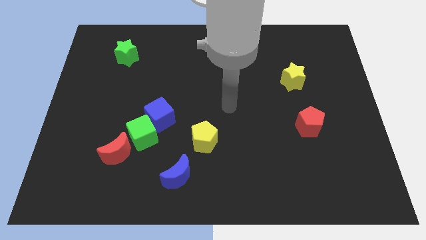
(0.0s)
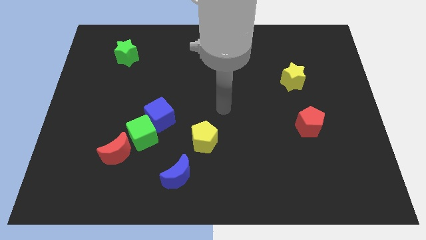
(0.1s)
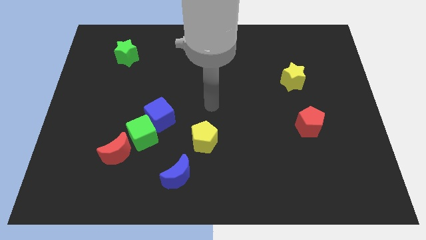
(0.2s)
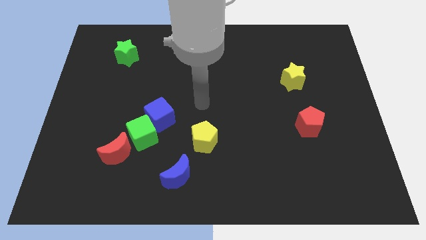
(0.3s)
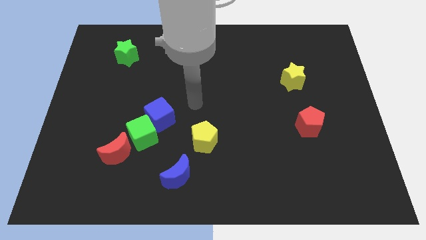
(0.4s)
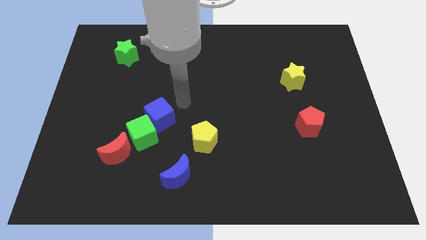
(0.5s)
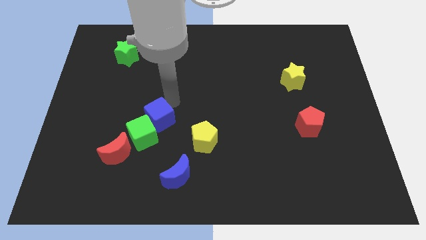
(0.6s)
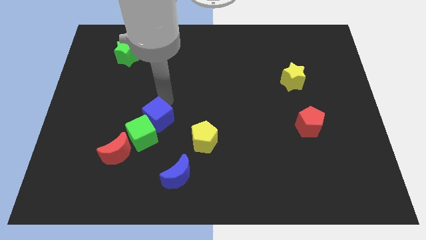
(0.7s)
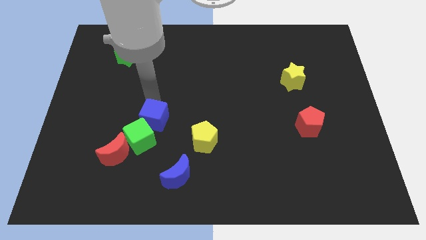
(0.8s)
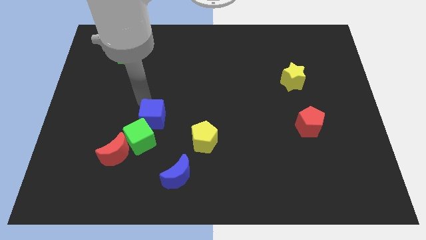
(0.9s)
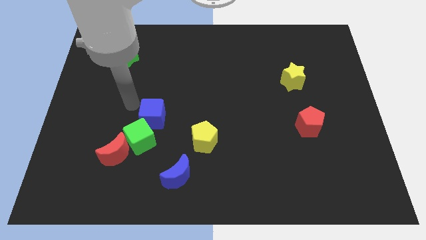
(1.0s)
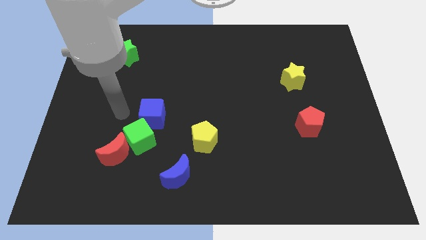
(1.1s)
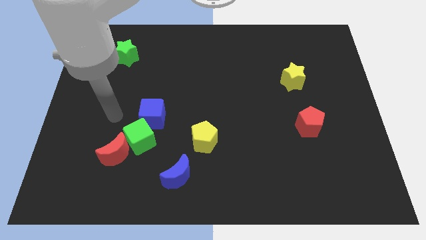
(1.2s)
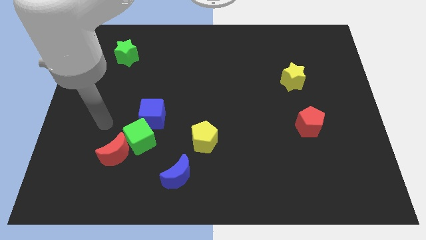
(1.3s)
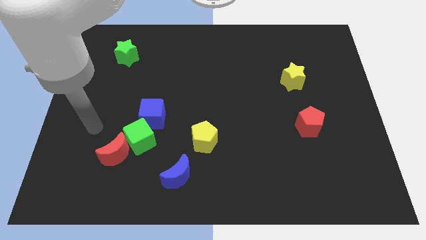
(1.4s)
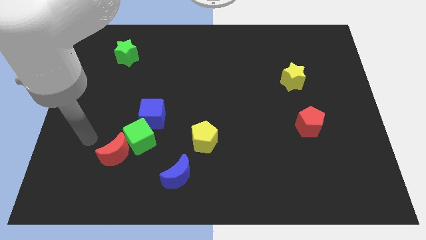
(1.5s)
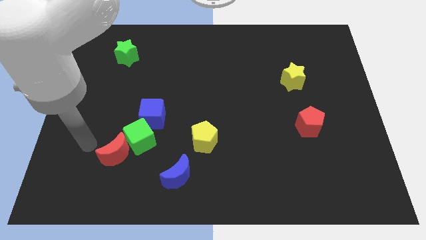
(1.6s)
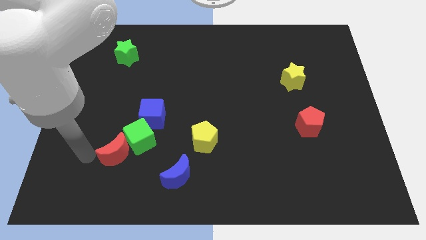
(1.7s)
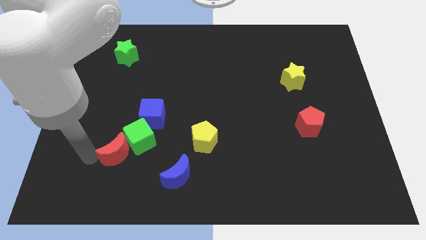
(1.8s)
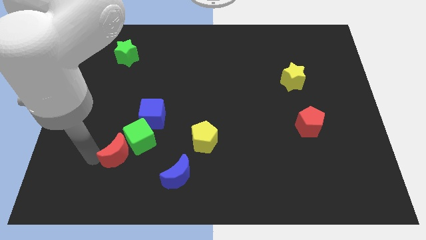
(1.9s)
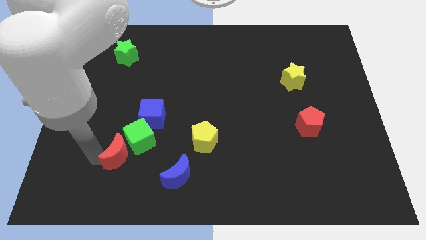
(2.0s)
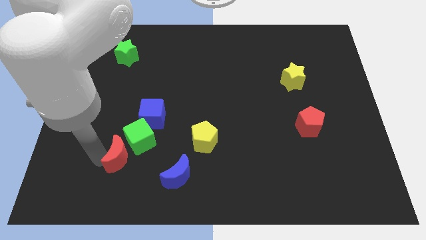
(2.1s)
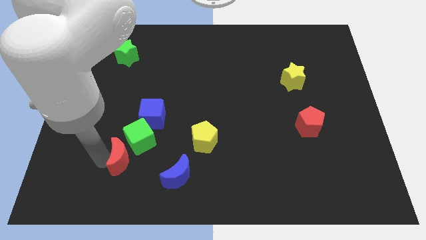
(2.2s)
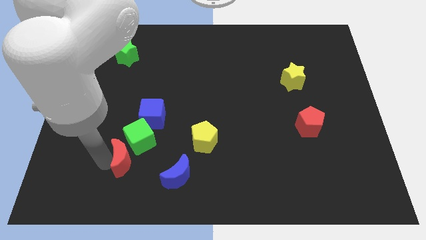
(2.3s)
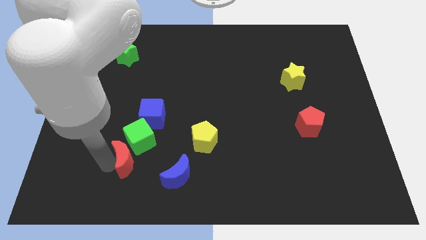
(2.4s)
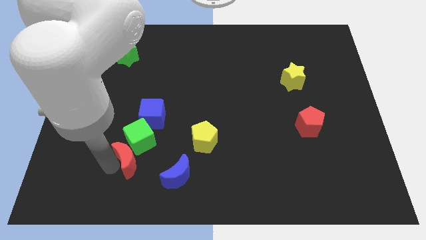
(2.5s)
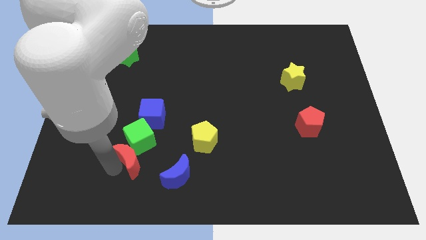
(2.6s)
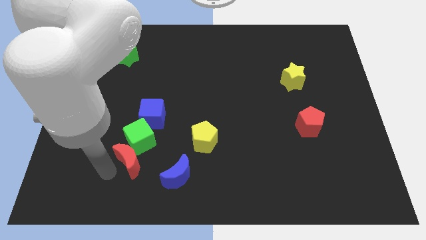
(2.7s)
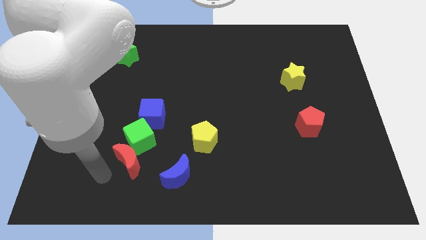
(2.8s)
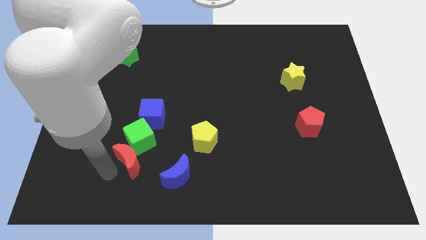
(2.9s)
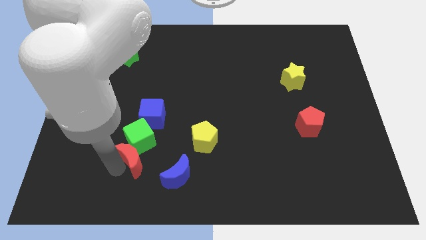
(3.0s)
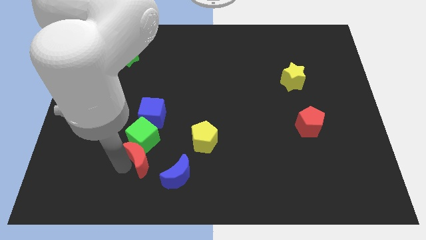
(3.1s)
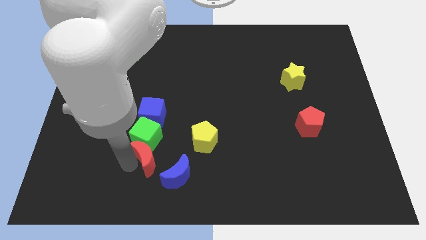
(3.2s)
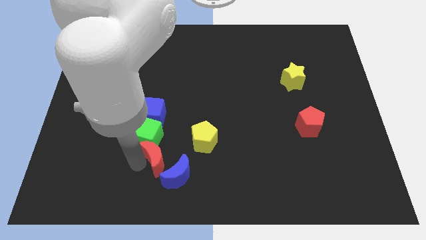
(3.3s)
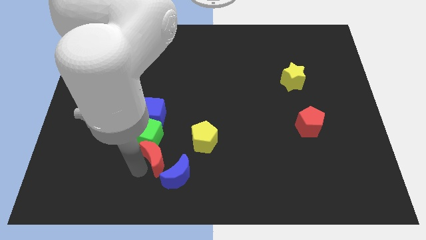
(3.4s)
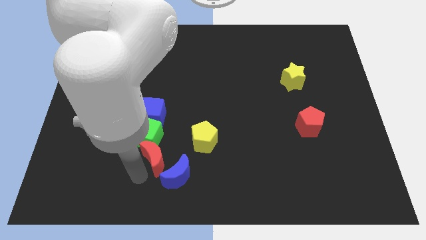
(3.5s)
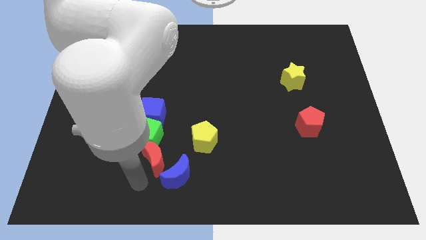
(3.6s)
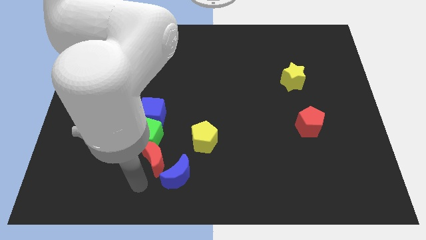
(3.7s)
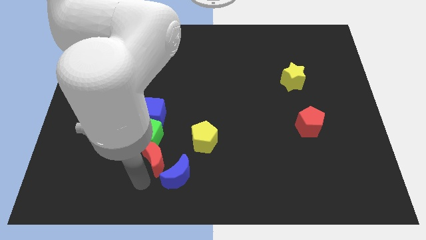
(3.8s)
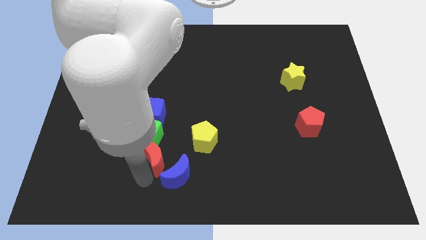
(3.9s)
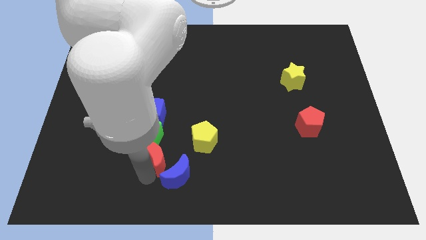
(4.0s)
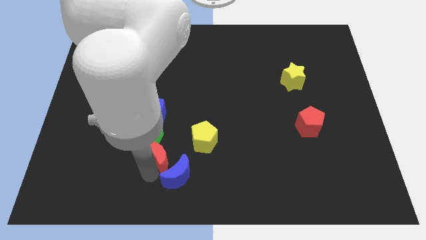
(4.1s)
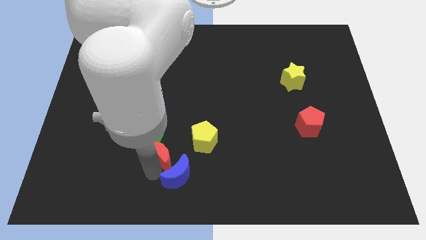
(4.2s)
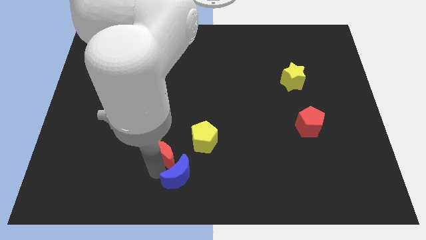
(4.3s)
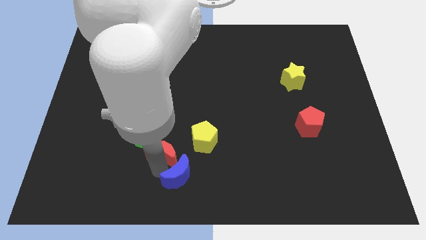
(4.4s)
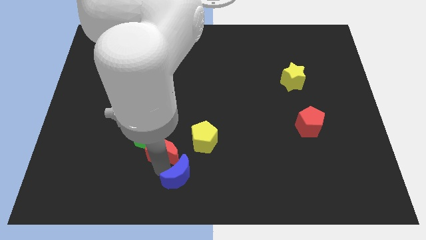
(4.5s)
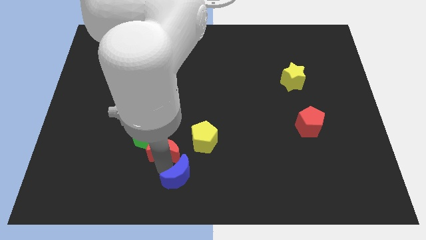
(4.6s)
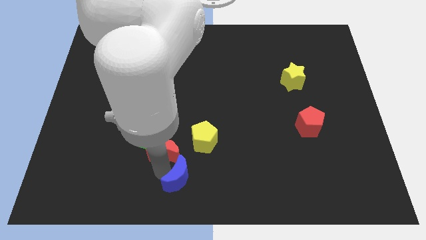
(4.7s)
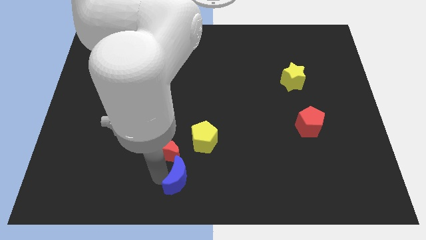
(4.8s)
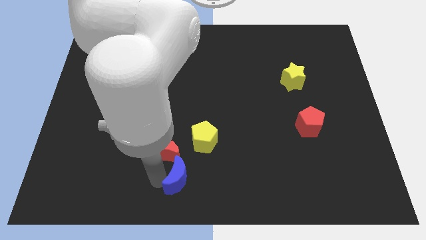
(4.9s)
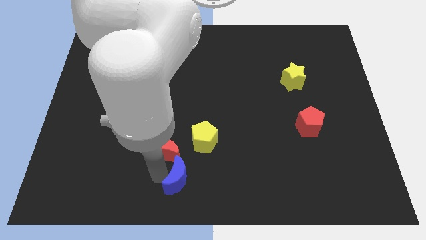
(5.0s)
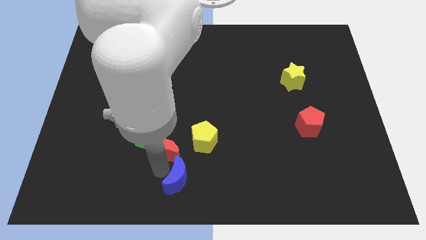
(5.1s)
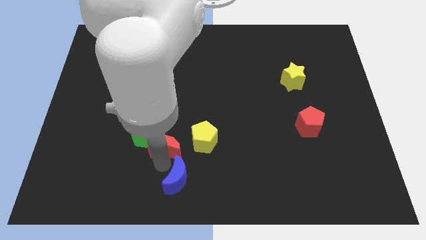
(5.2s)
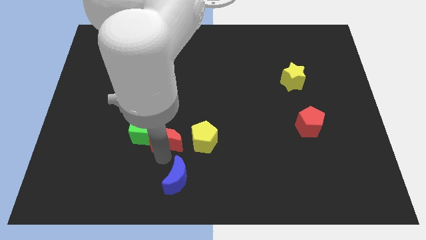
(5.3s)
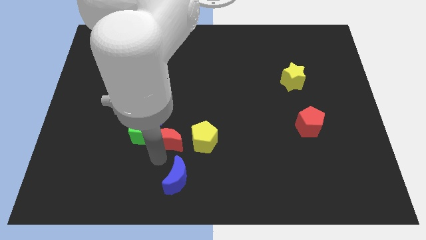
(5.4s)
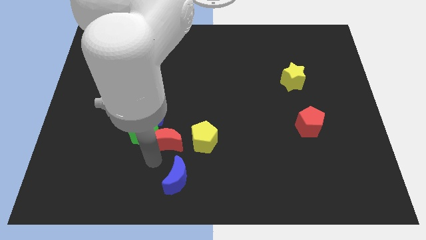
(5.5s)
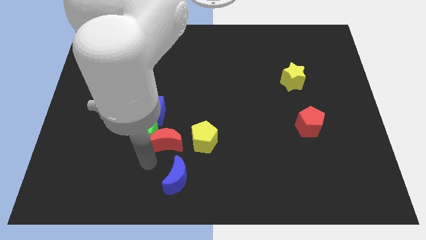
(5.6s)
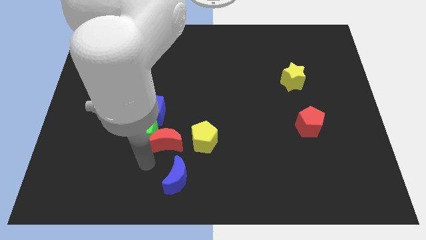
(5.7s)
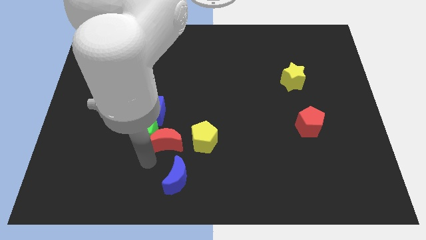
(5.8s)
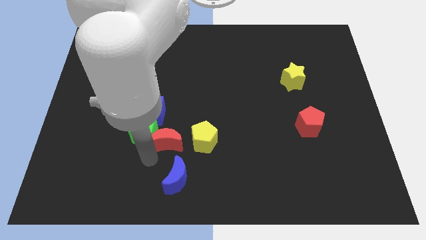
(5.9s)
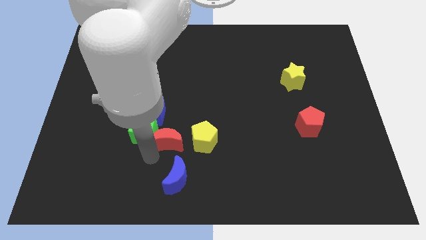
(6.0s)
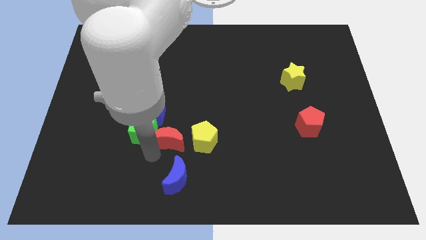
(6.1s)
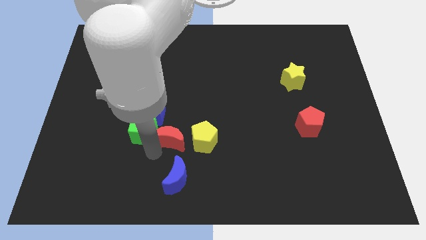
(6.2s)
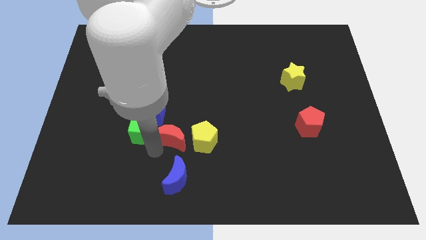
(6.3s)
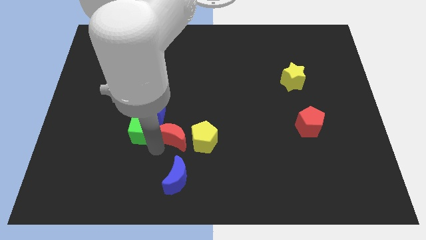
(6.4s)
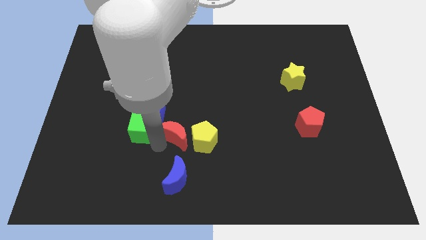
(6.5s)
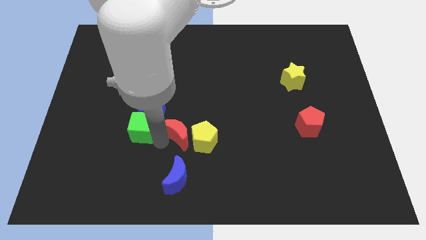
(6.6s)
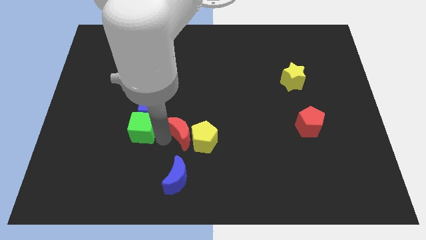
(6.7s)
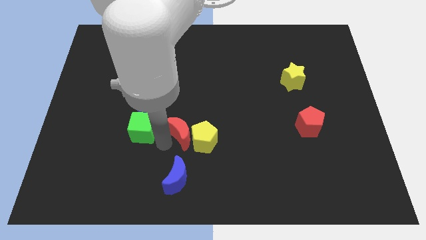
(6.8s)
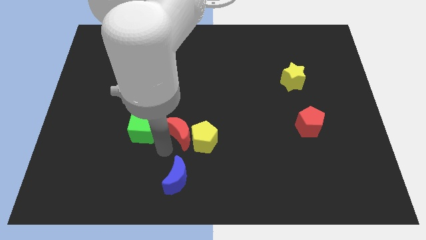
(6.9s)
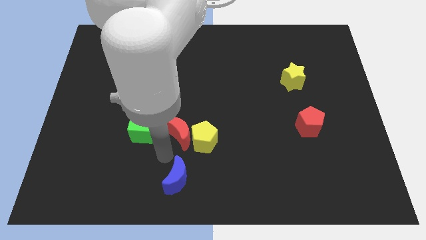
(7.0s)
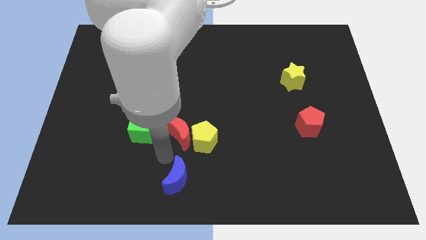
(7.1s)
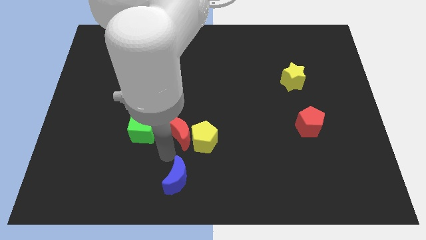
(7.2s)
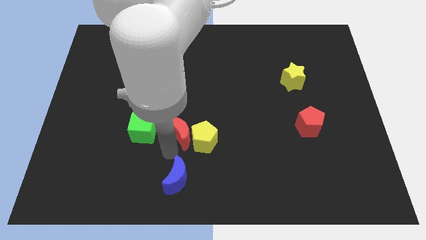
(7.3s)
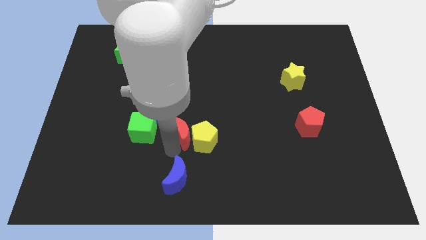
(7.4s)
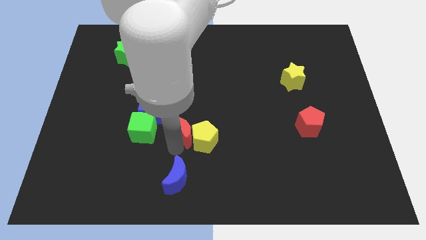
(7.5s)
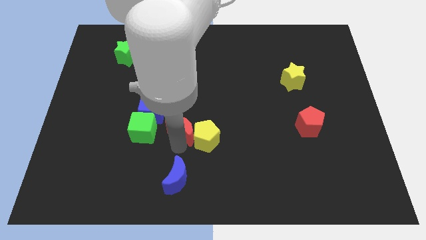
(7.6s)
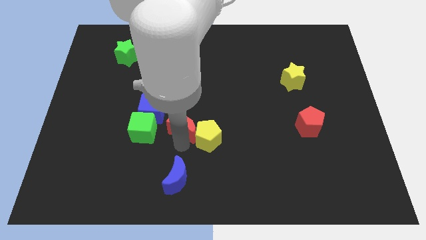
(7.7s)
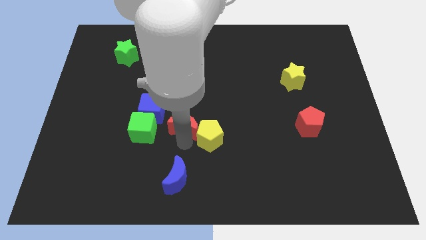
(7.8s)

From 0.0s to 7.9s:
move the red moon right of the blue cube
